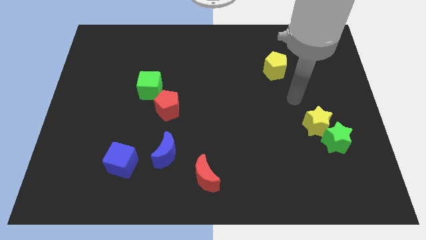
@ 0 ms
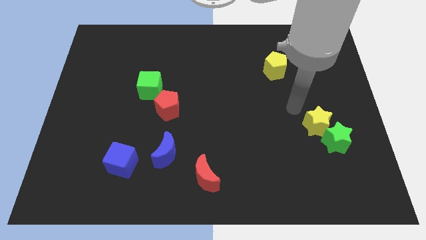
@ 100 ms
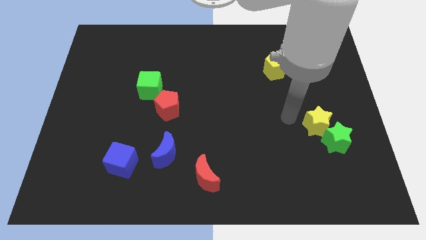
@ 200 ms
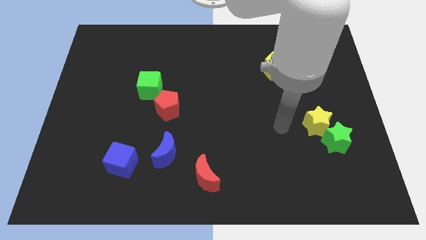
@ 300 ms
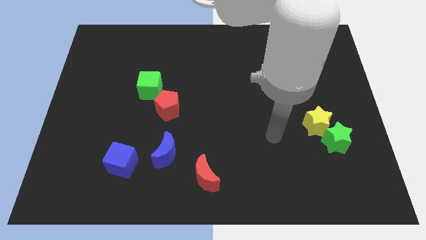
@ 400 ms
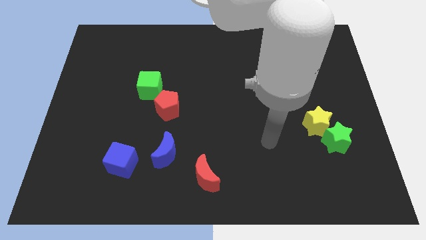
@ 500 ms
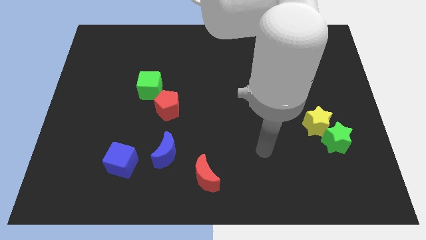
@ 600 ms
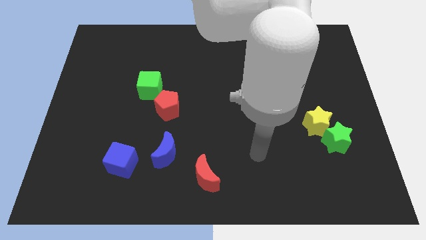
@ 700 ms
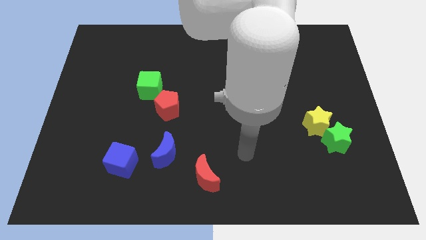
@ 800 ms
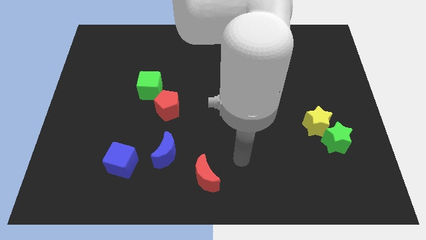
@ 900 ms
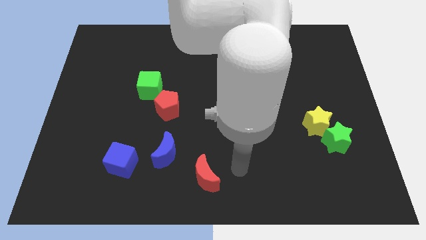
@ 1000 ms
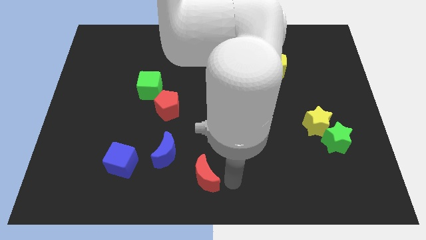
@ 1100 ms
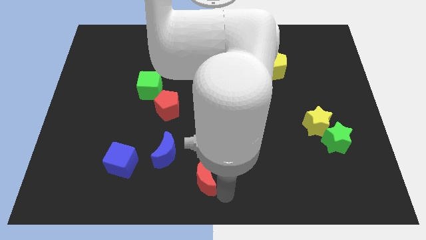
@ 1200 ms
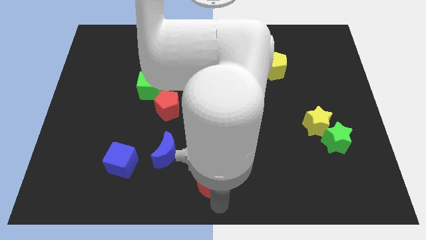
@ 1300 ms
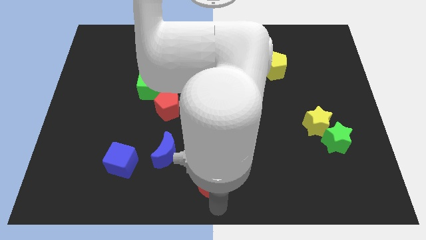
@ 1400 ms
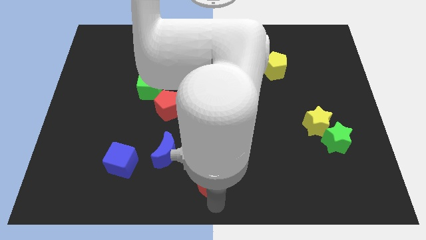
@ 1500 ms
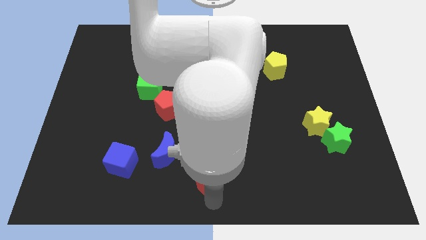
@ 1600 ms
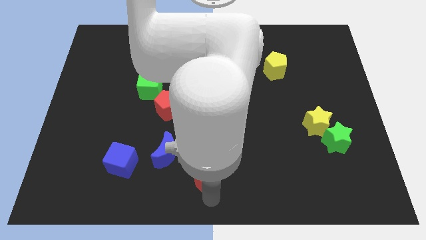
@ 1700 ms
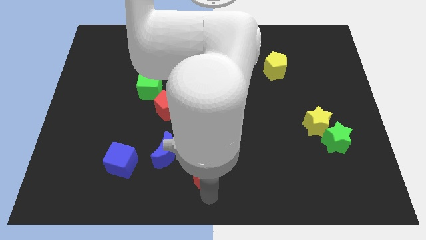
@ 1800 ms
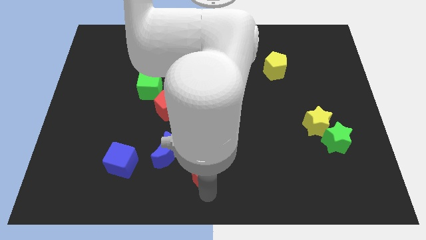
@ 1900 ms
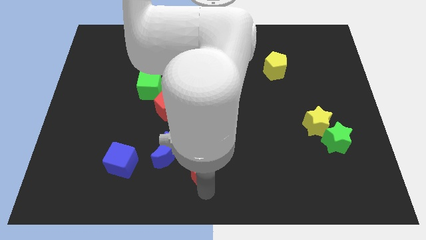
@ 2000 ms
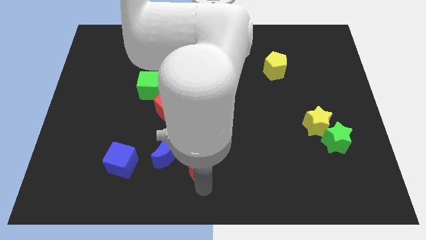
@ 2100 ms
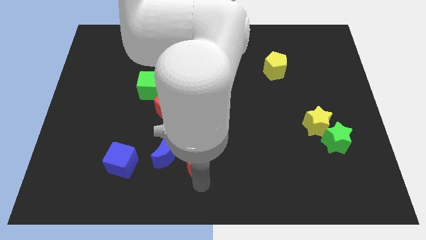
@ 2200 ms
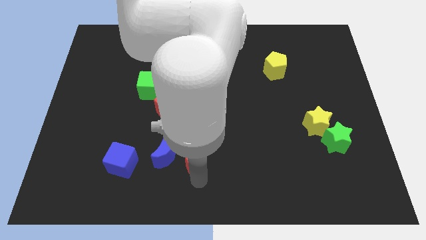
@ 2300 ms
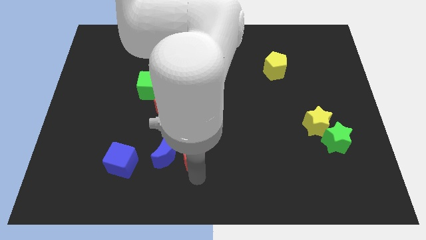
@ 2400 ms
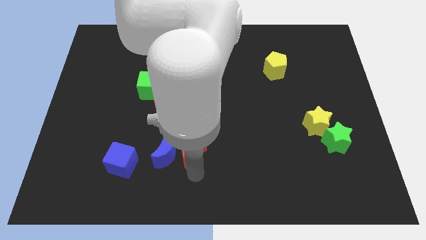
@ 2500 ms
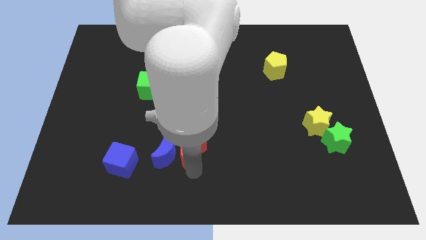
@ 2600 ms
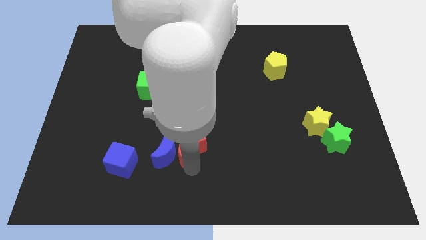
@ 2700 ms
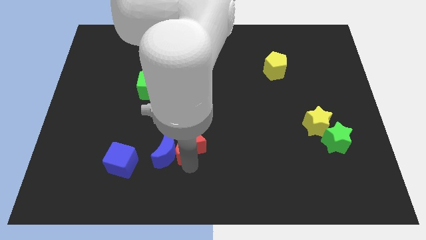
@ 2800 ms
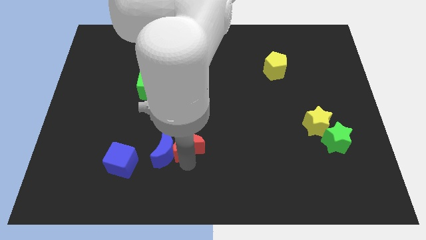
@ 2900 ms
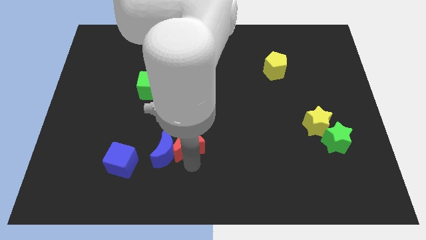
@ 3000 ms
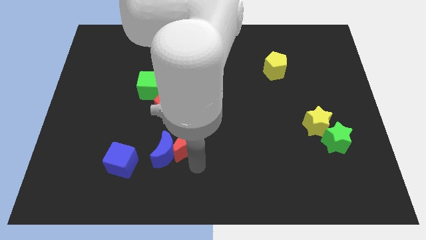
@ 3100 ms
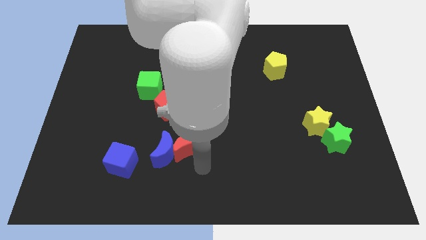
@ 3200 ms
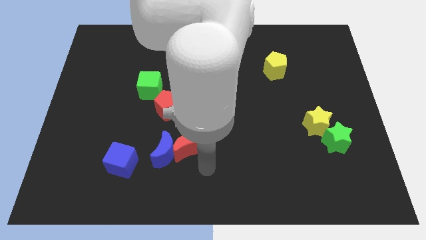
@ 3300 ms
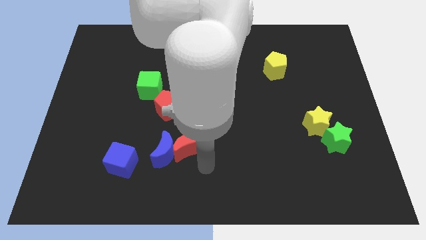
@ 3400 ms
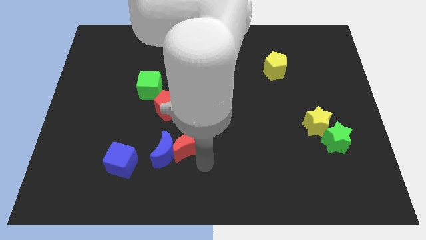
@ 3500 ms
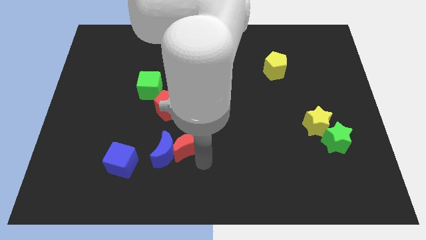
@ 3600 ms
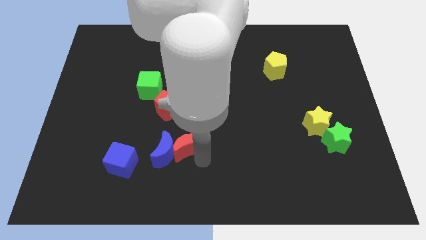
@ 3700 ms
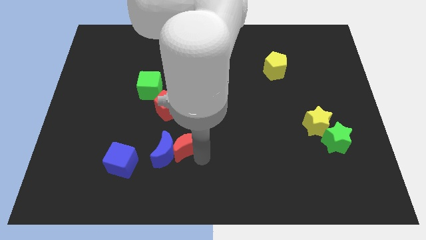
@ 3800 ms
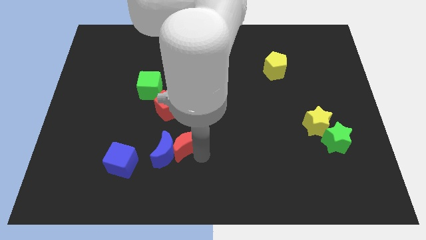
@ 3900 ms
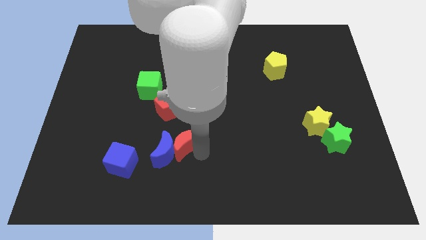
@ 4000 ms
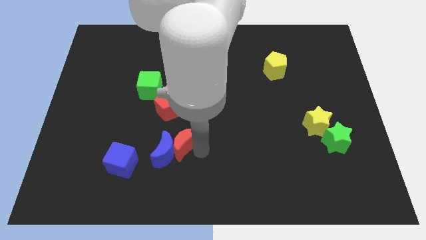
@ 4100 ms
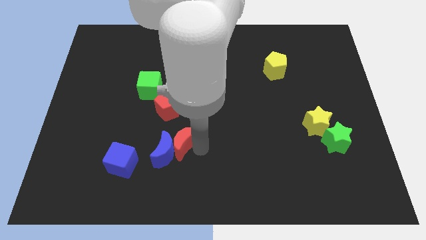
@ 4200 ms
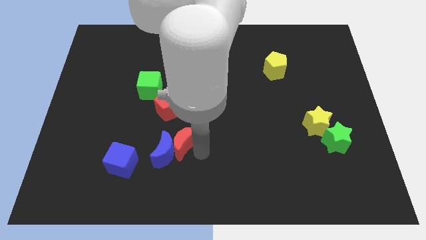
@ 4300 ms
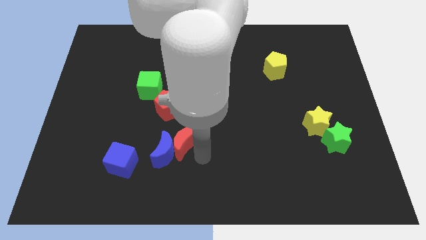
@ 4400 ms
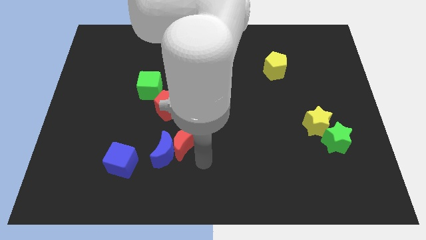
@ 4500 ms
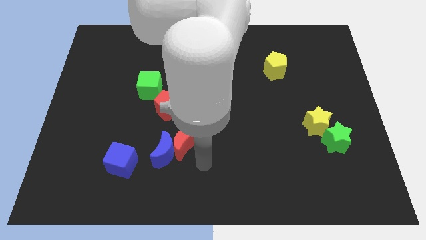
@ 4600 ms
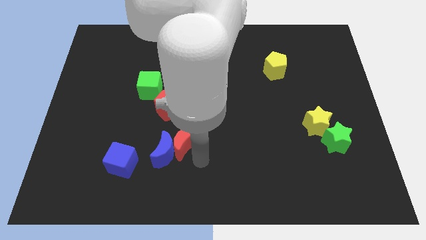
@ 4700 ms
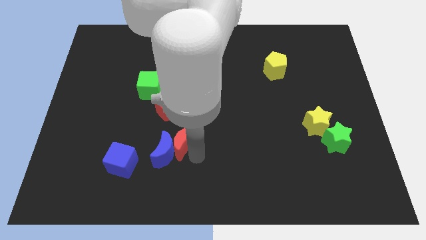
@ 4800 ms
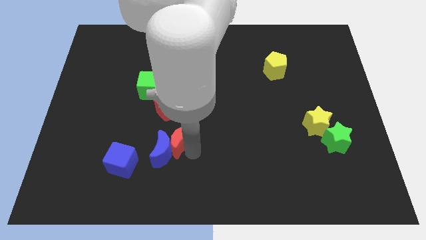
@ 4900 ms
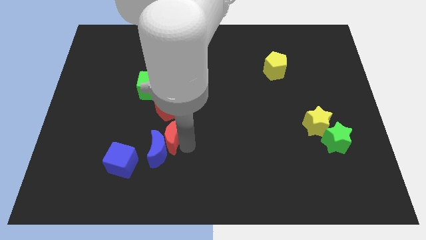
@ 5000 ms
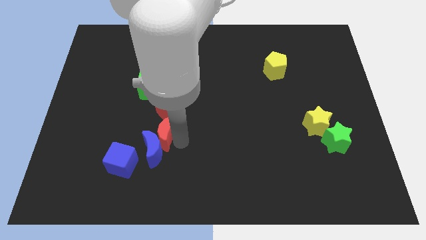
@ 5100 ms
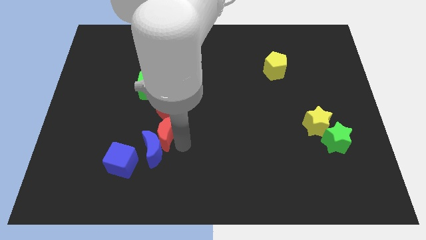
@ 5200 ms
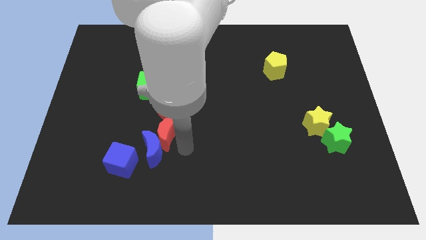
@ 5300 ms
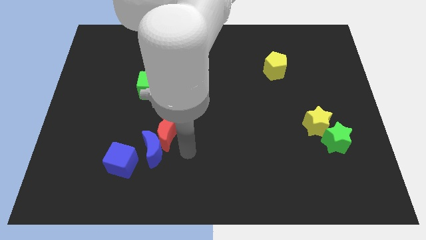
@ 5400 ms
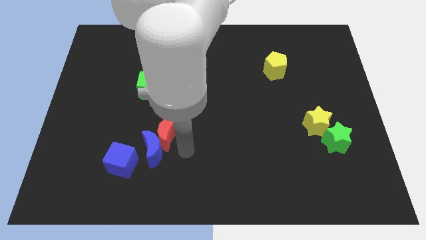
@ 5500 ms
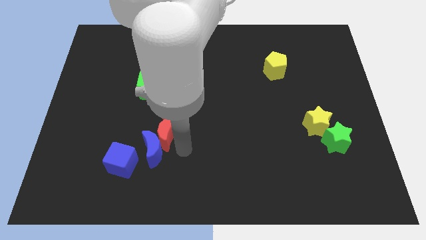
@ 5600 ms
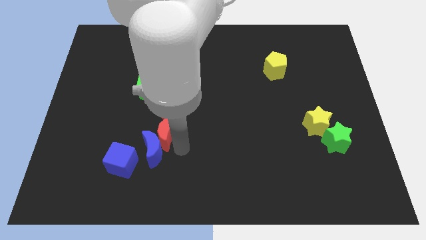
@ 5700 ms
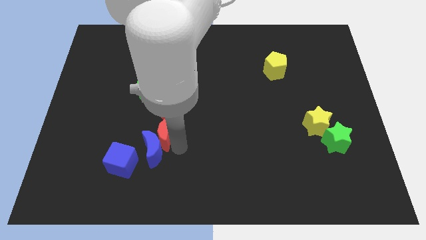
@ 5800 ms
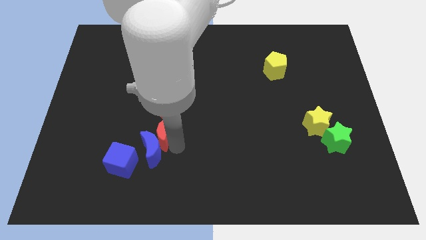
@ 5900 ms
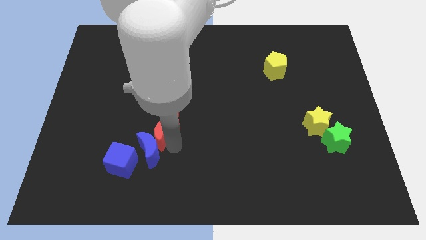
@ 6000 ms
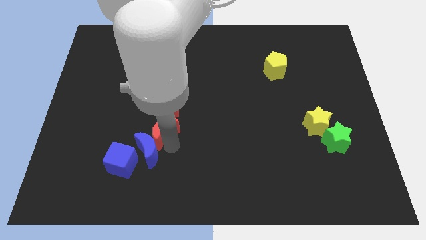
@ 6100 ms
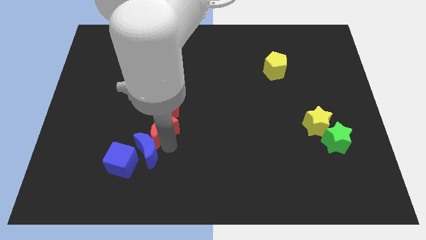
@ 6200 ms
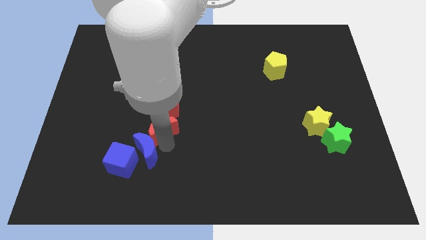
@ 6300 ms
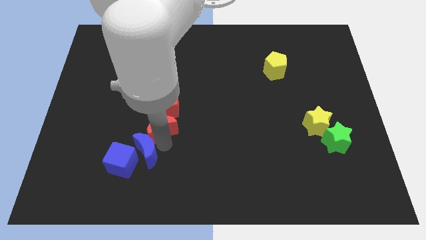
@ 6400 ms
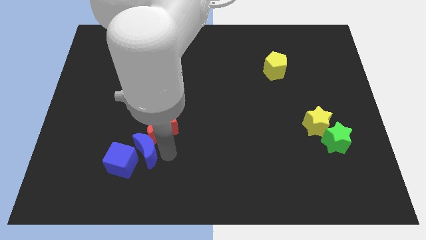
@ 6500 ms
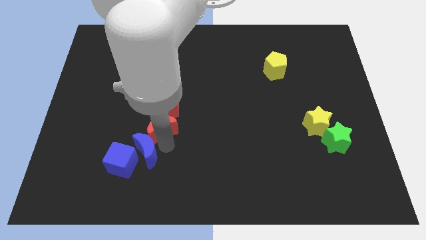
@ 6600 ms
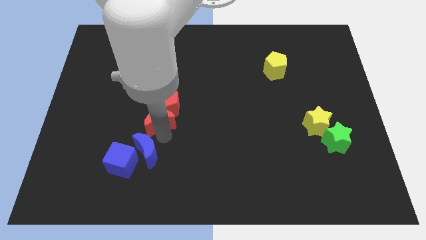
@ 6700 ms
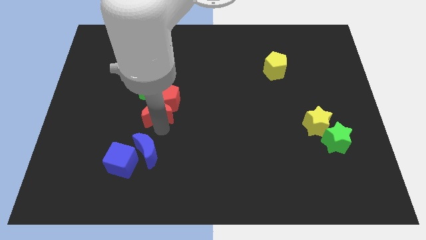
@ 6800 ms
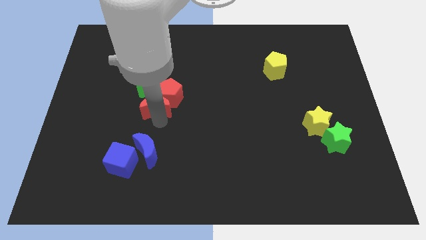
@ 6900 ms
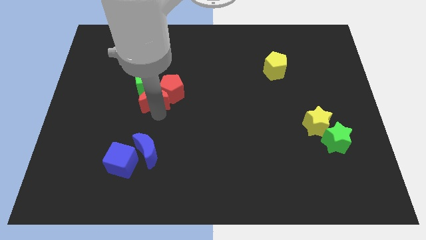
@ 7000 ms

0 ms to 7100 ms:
move the red moon close to the green cube
